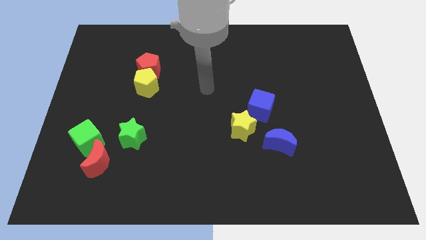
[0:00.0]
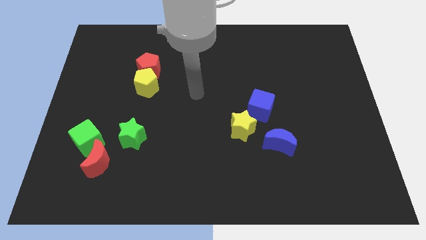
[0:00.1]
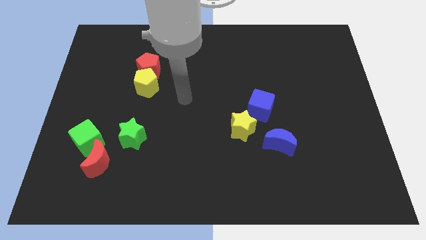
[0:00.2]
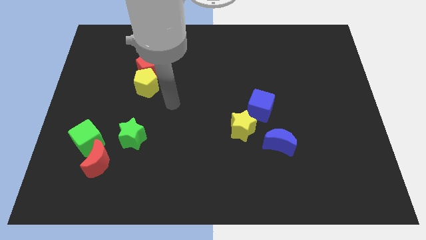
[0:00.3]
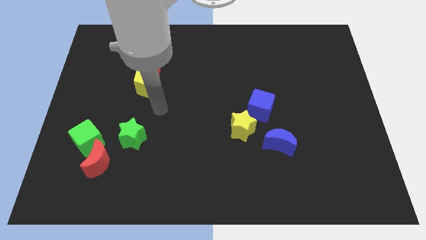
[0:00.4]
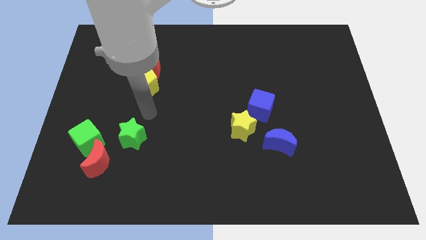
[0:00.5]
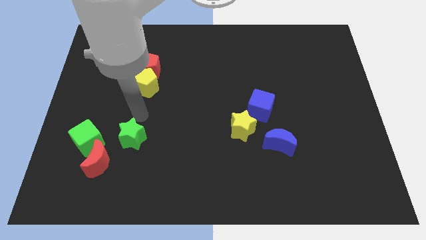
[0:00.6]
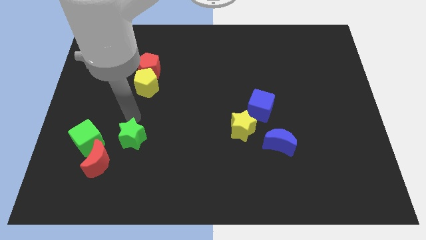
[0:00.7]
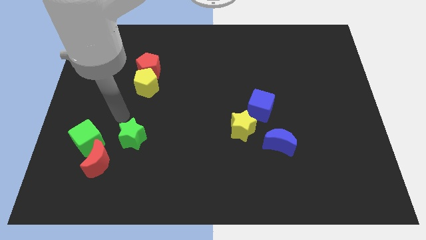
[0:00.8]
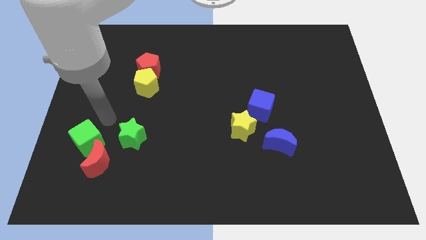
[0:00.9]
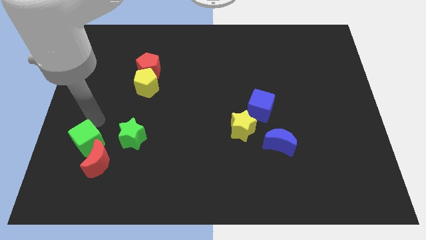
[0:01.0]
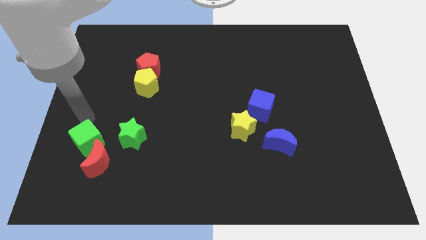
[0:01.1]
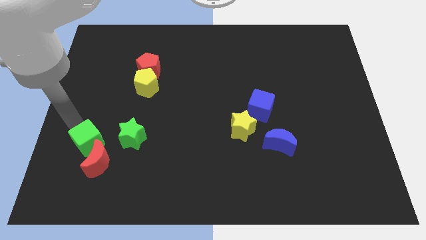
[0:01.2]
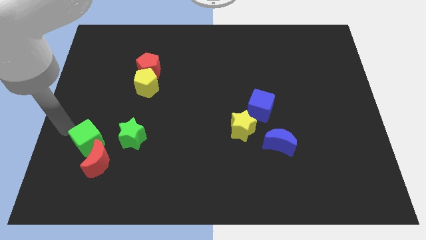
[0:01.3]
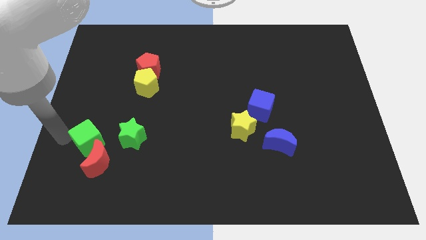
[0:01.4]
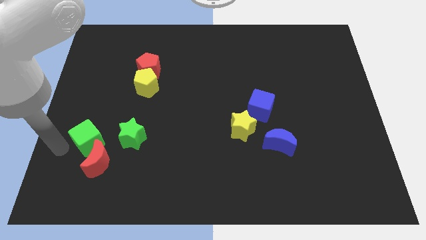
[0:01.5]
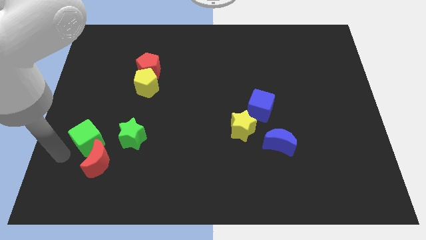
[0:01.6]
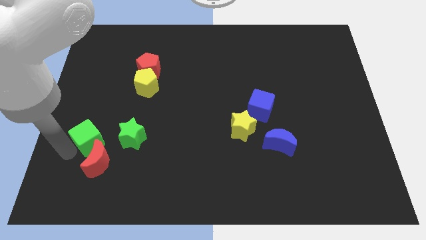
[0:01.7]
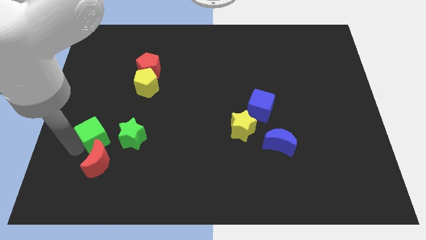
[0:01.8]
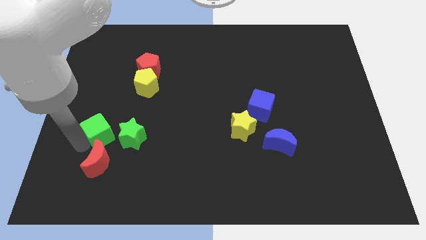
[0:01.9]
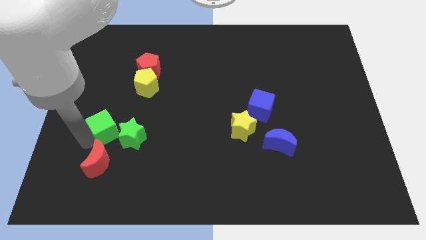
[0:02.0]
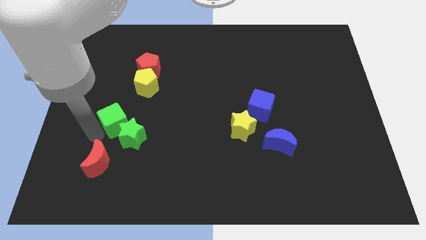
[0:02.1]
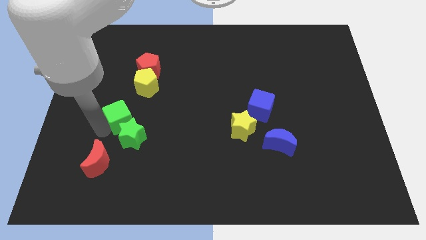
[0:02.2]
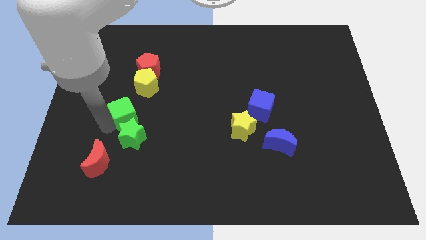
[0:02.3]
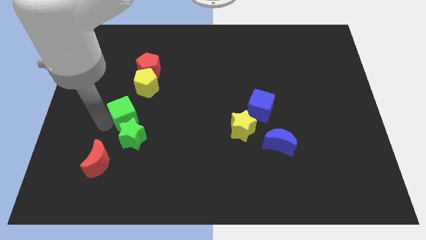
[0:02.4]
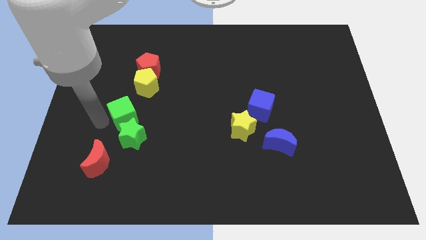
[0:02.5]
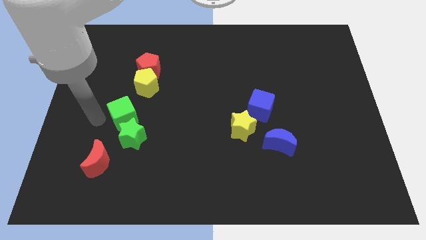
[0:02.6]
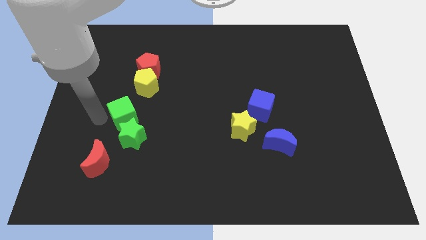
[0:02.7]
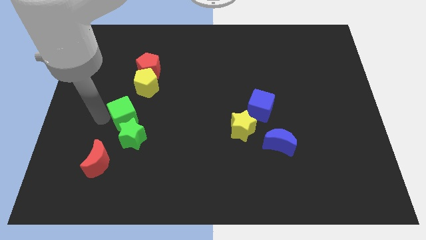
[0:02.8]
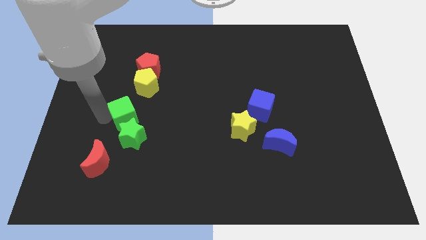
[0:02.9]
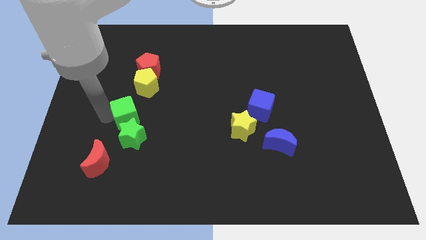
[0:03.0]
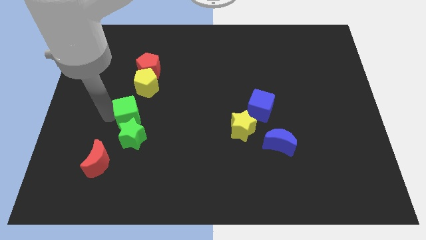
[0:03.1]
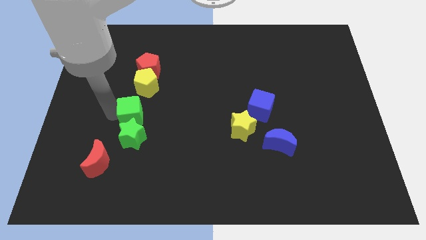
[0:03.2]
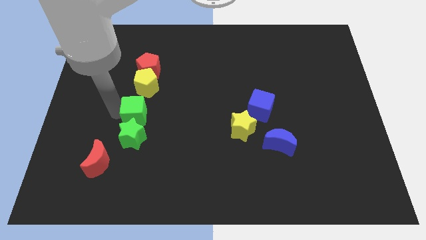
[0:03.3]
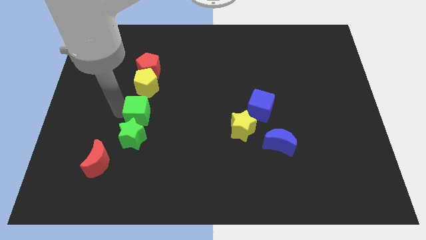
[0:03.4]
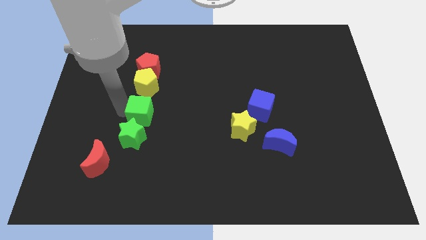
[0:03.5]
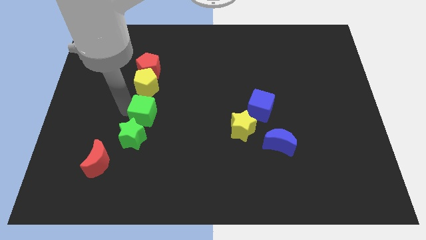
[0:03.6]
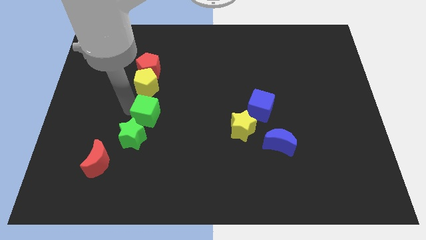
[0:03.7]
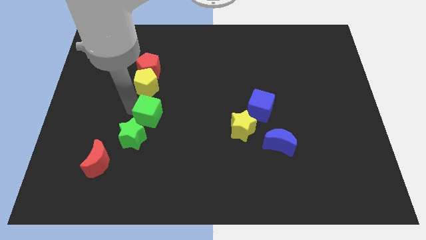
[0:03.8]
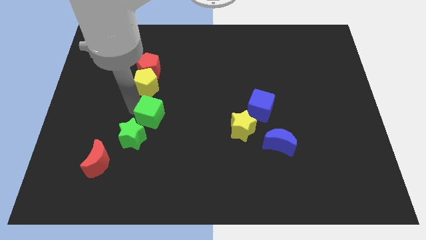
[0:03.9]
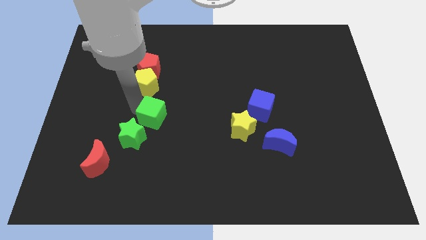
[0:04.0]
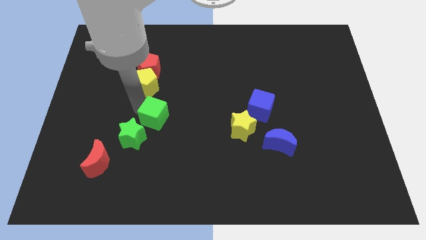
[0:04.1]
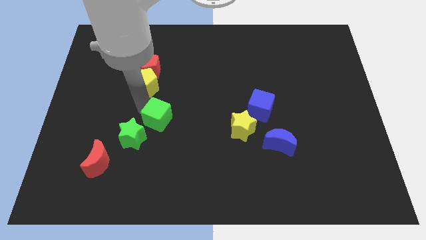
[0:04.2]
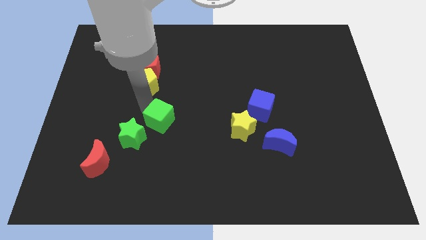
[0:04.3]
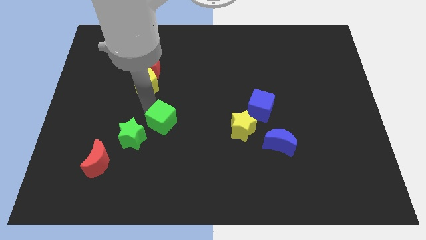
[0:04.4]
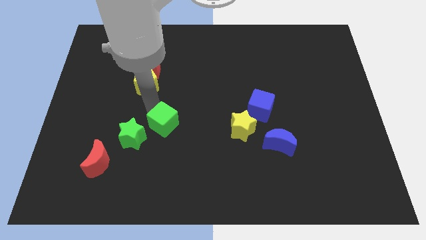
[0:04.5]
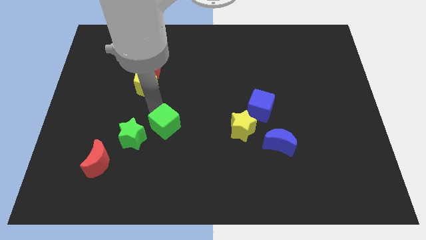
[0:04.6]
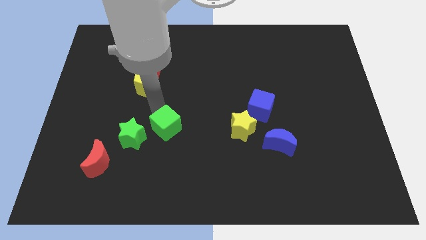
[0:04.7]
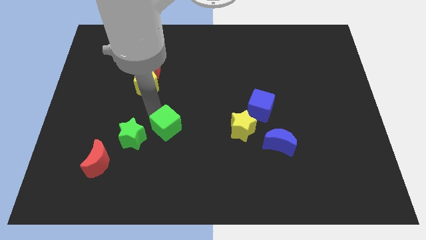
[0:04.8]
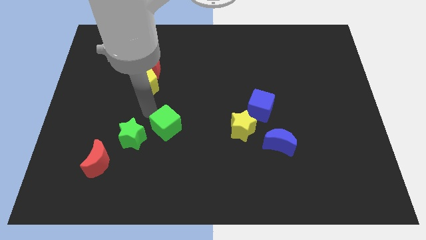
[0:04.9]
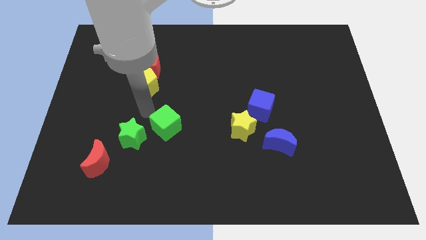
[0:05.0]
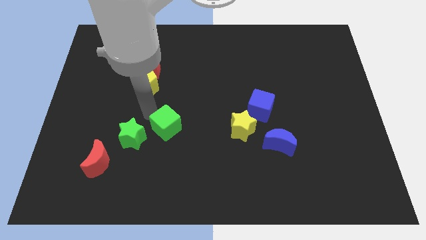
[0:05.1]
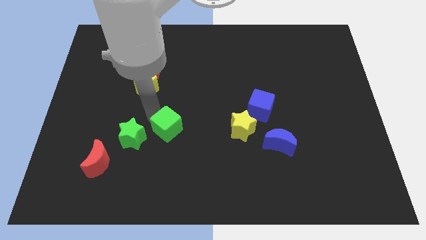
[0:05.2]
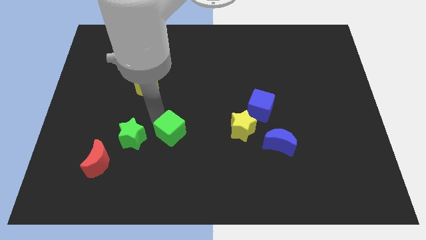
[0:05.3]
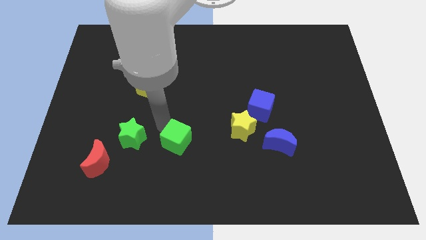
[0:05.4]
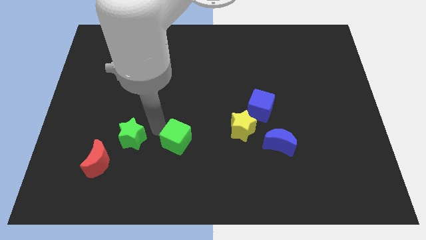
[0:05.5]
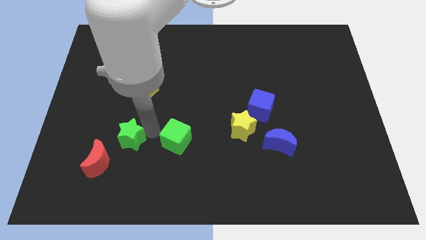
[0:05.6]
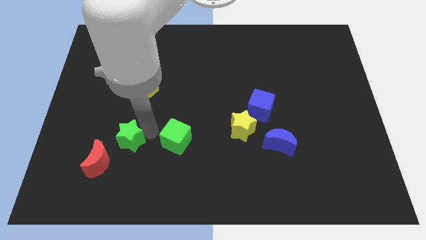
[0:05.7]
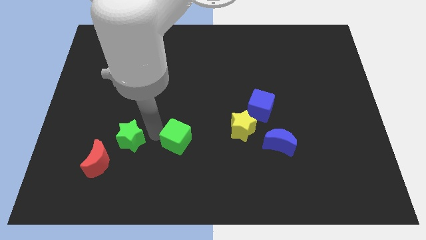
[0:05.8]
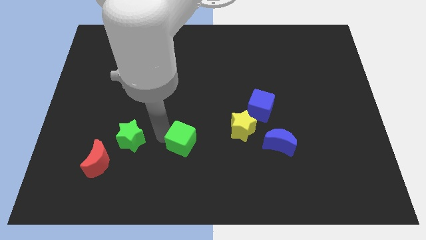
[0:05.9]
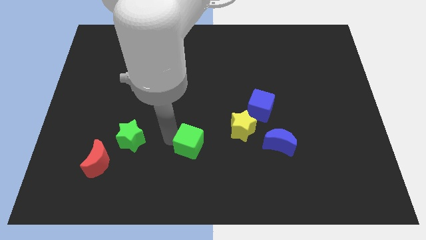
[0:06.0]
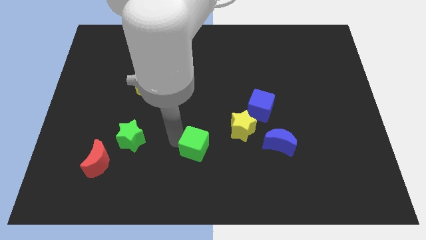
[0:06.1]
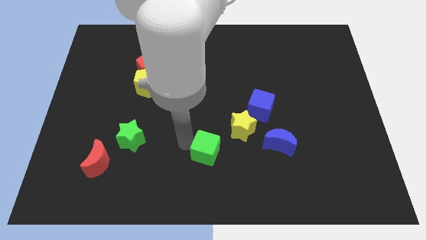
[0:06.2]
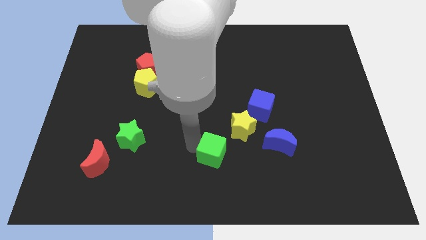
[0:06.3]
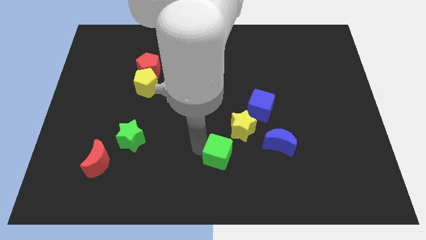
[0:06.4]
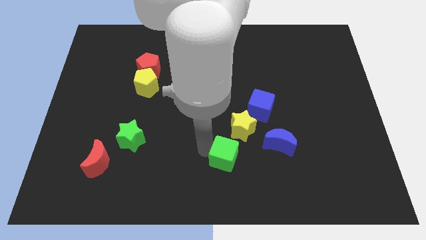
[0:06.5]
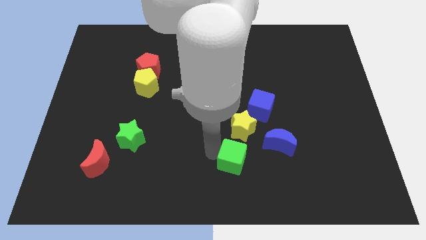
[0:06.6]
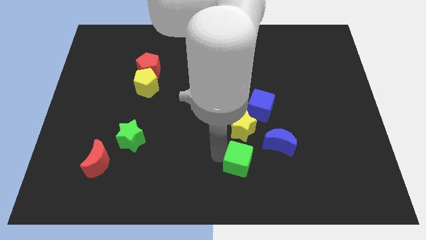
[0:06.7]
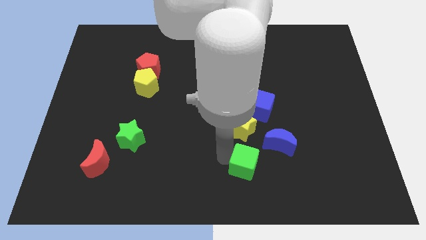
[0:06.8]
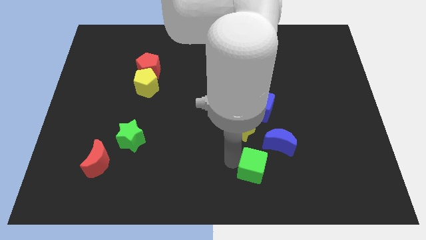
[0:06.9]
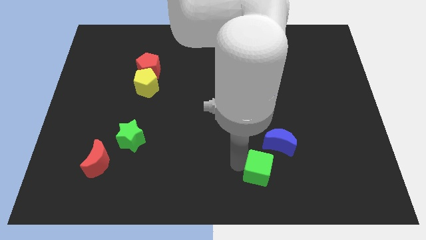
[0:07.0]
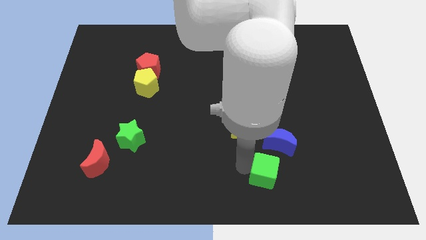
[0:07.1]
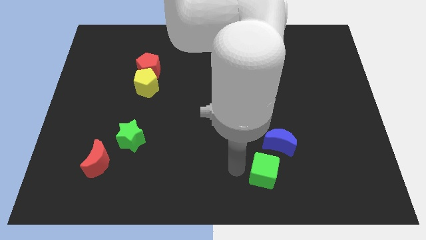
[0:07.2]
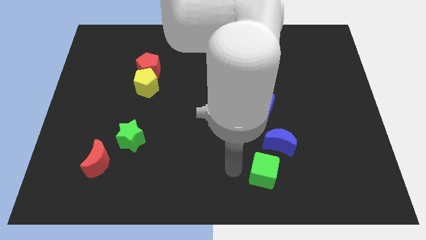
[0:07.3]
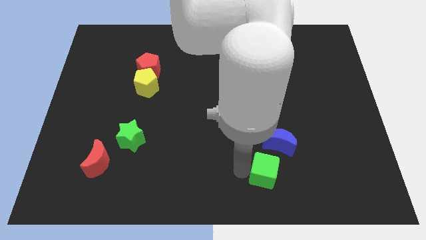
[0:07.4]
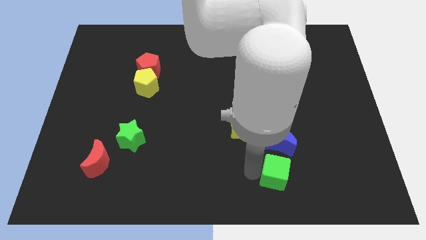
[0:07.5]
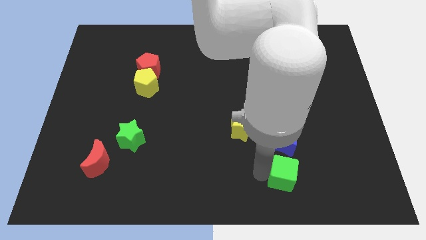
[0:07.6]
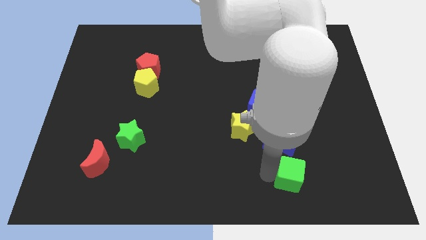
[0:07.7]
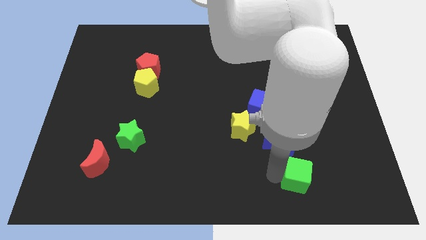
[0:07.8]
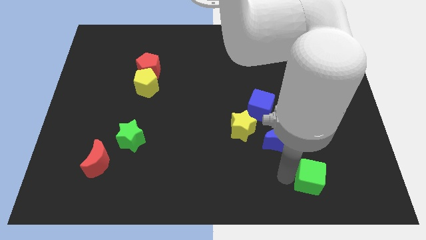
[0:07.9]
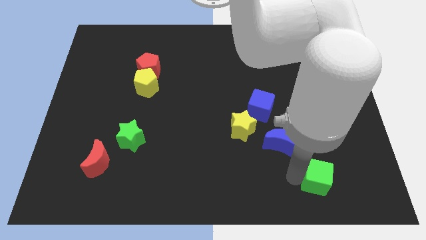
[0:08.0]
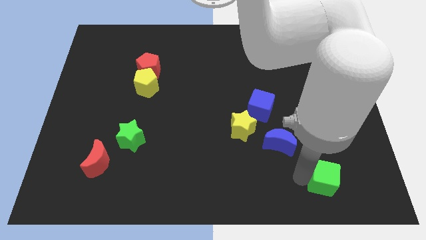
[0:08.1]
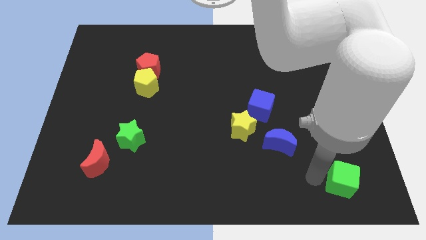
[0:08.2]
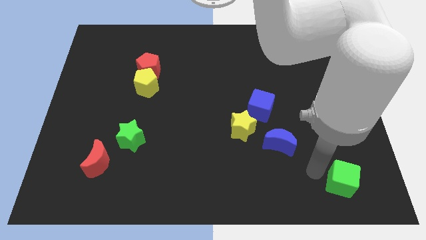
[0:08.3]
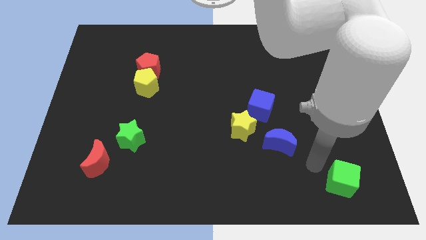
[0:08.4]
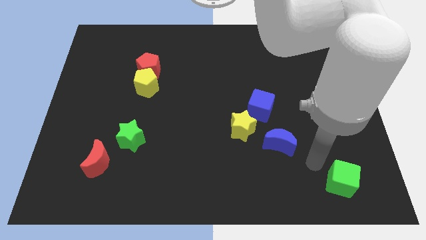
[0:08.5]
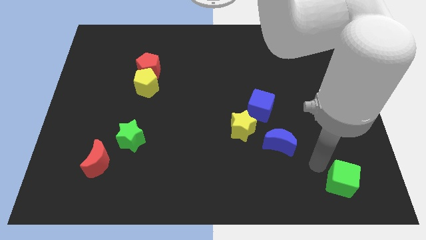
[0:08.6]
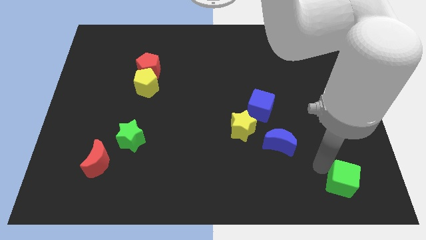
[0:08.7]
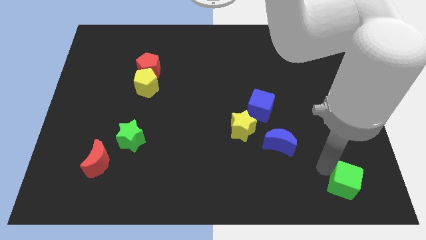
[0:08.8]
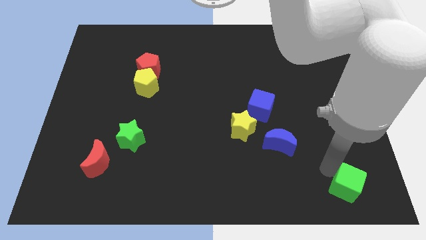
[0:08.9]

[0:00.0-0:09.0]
move the green cube to the lower right corner
